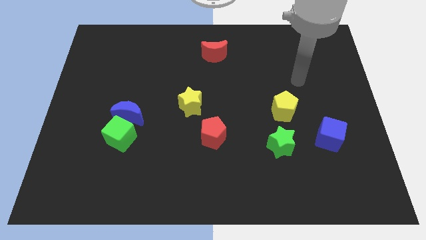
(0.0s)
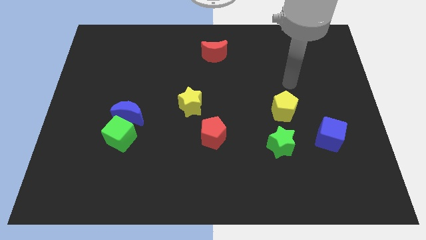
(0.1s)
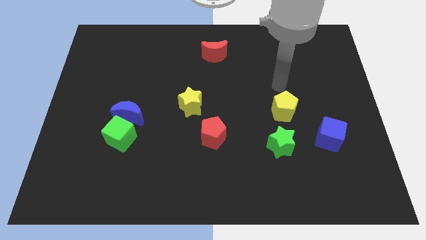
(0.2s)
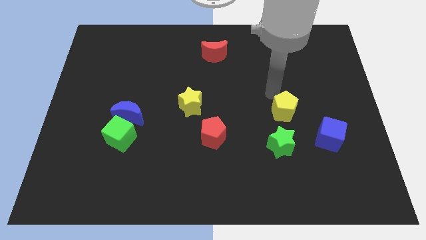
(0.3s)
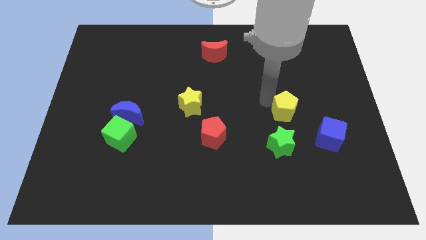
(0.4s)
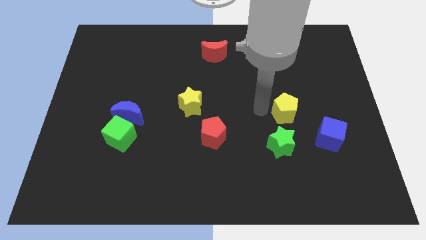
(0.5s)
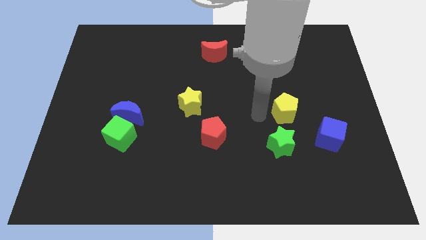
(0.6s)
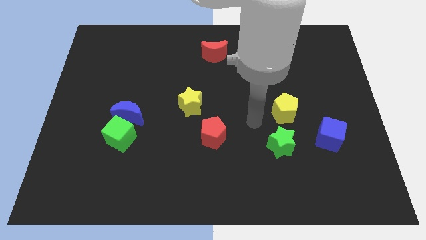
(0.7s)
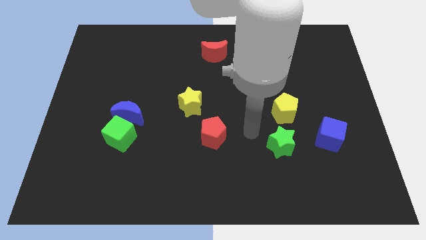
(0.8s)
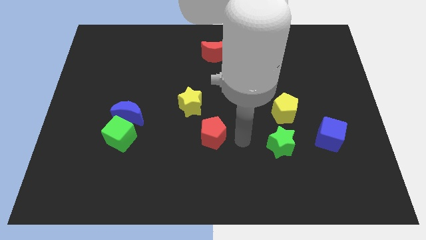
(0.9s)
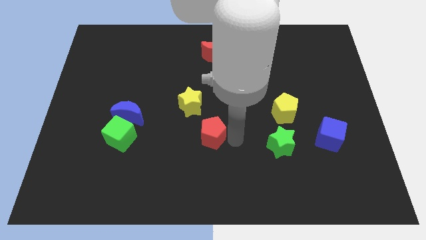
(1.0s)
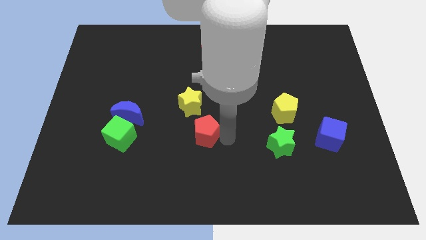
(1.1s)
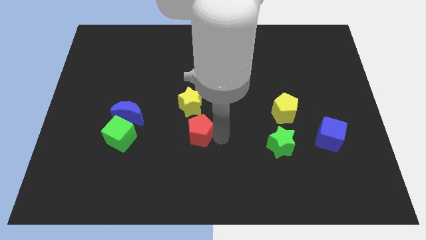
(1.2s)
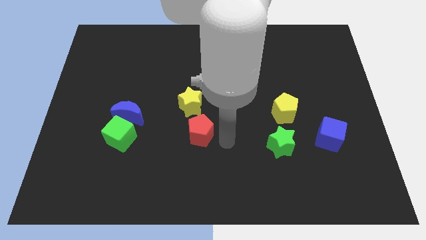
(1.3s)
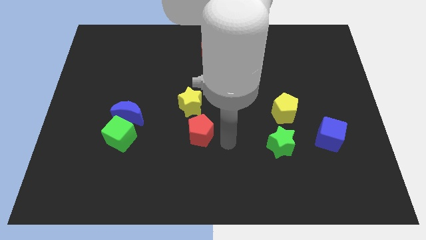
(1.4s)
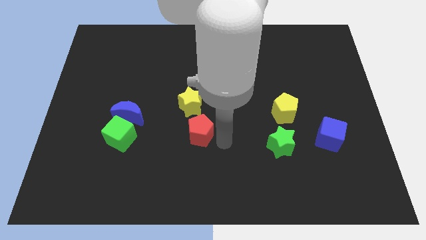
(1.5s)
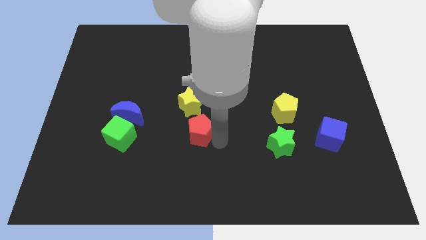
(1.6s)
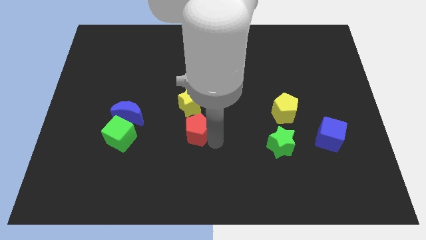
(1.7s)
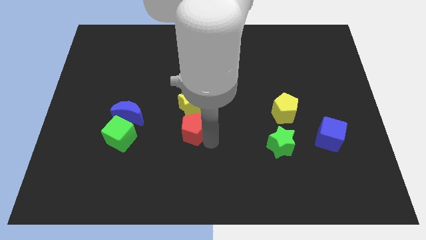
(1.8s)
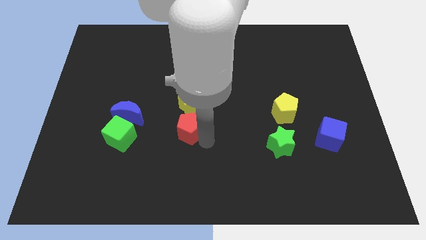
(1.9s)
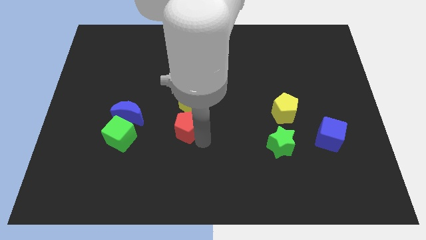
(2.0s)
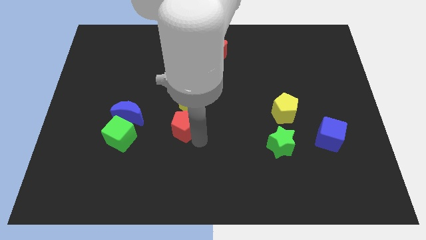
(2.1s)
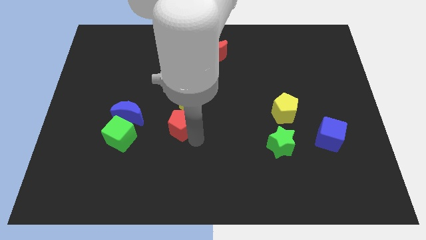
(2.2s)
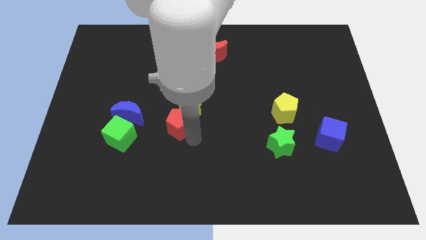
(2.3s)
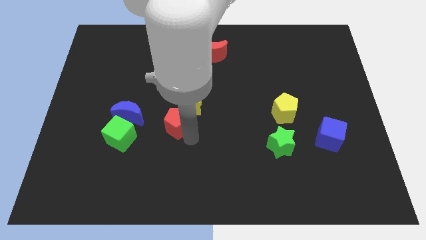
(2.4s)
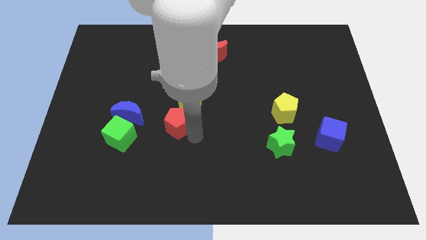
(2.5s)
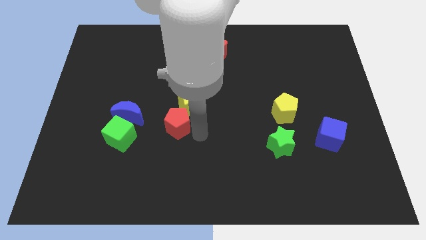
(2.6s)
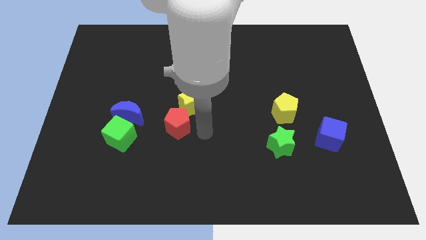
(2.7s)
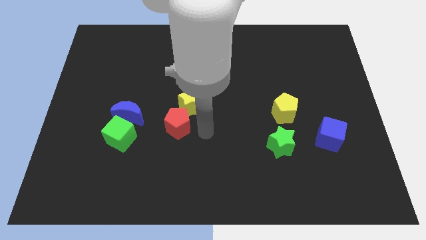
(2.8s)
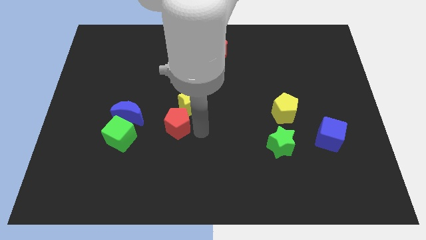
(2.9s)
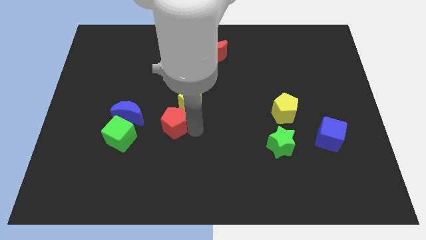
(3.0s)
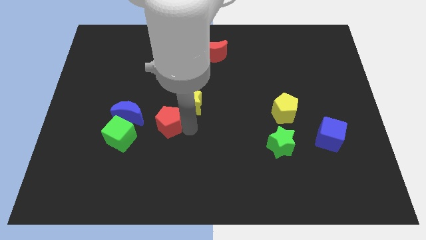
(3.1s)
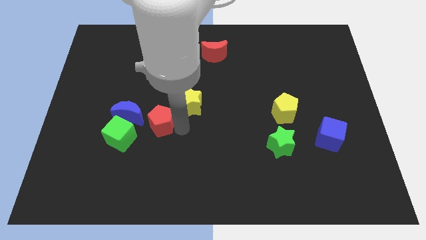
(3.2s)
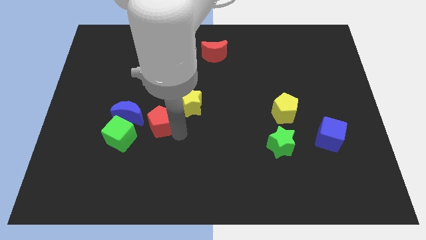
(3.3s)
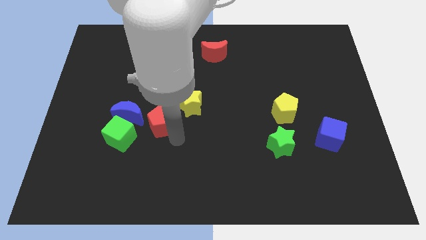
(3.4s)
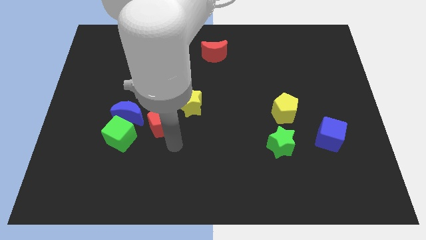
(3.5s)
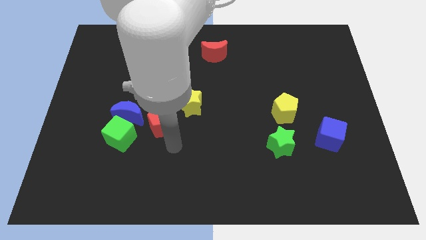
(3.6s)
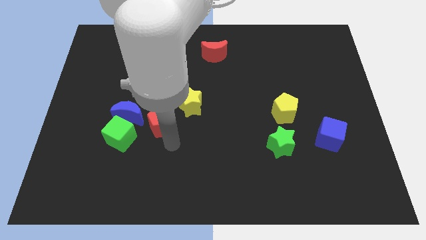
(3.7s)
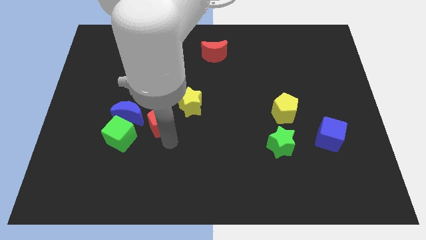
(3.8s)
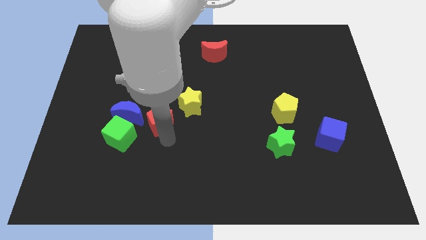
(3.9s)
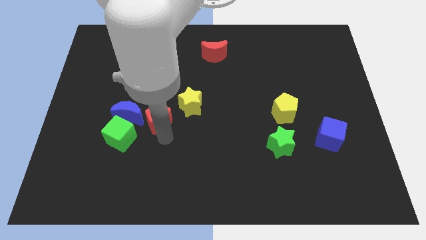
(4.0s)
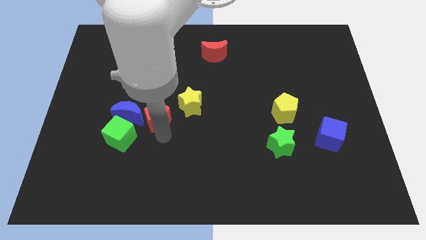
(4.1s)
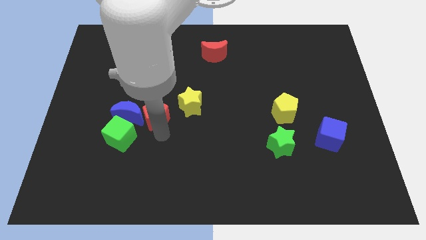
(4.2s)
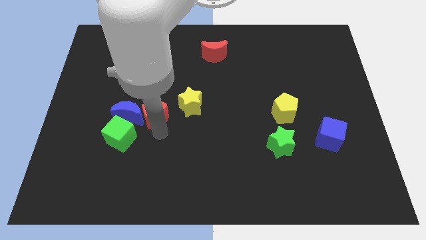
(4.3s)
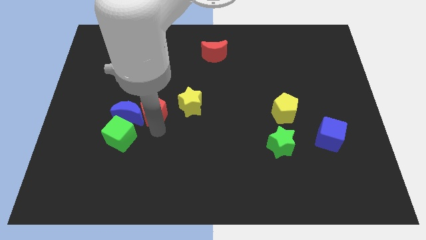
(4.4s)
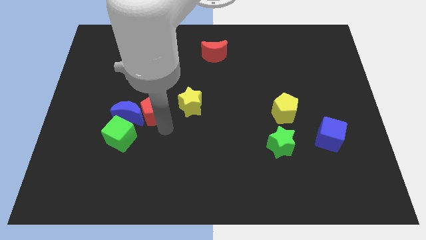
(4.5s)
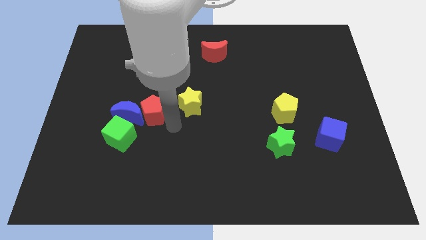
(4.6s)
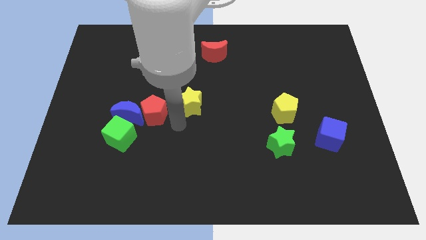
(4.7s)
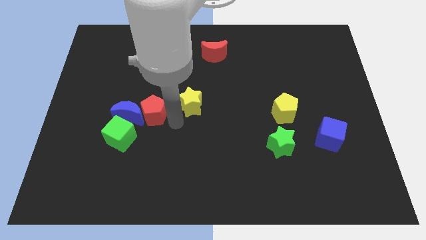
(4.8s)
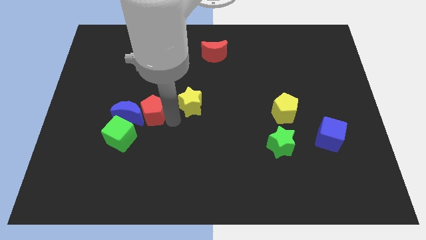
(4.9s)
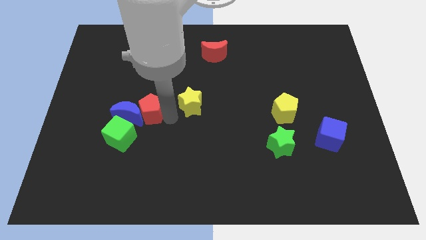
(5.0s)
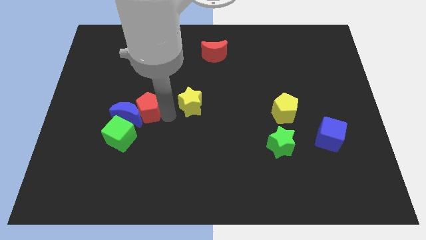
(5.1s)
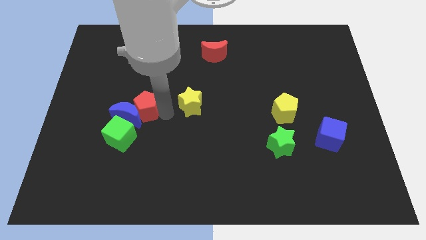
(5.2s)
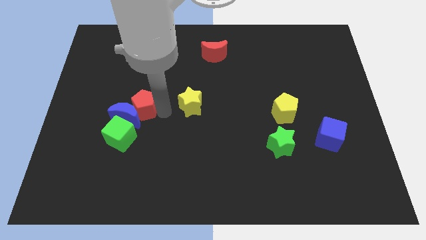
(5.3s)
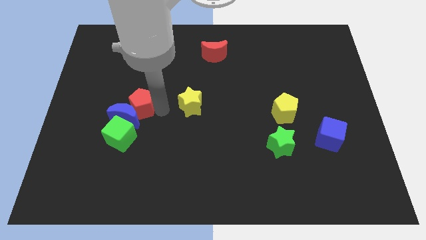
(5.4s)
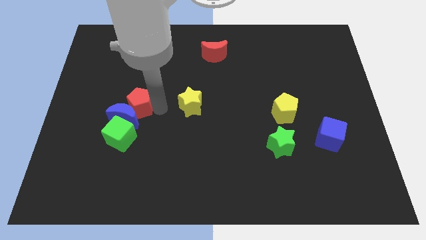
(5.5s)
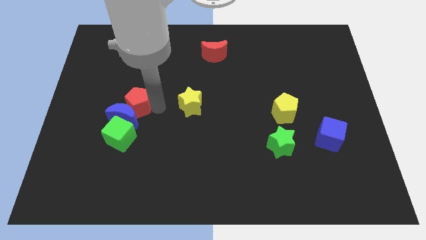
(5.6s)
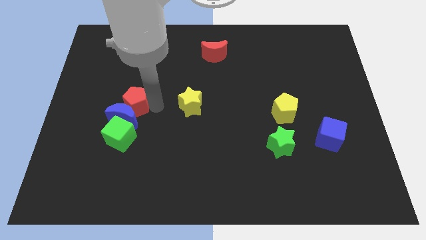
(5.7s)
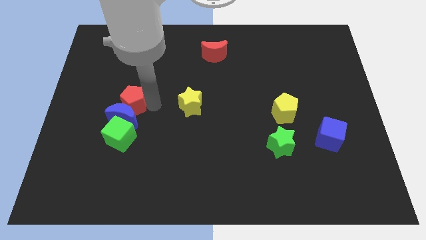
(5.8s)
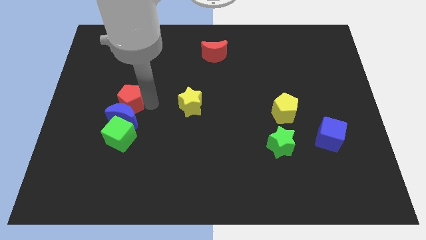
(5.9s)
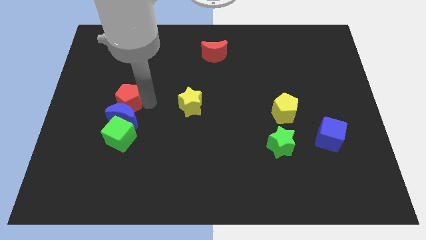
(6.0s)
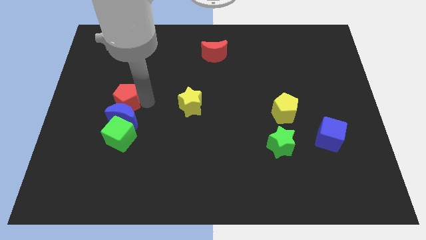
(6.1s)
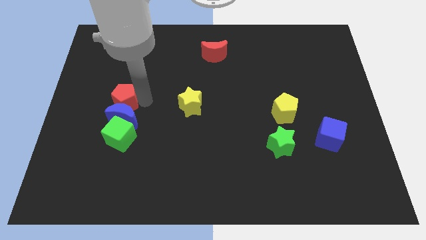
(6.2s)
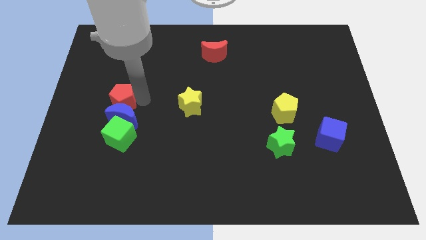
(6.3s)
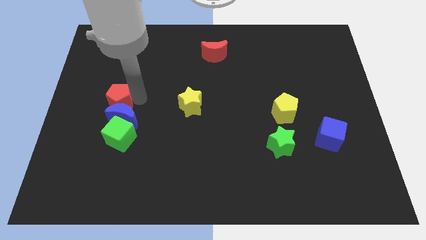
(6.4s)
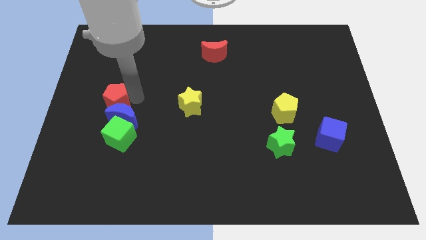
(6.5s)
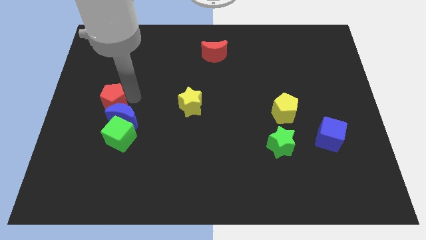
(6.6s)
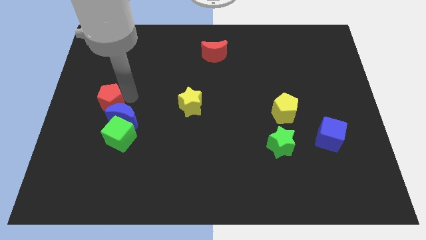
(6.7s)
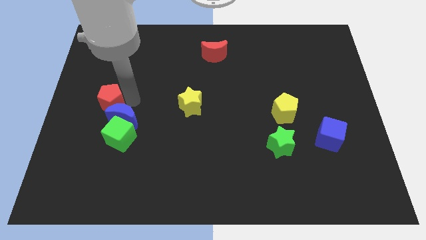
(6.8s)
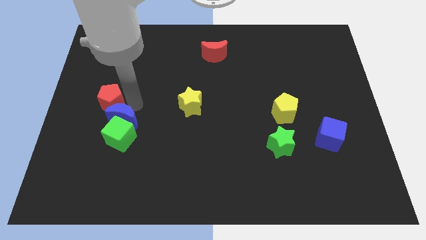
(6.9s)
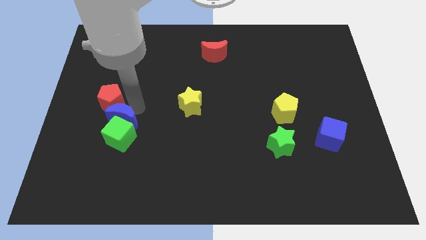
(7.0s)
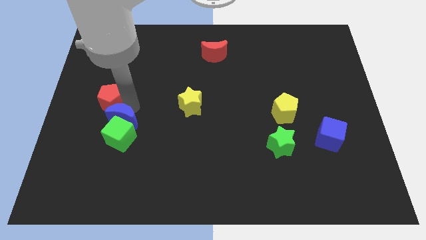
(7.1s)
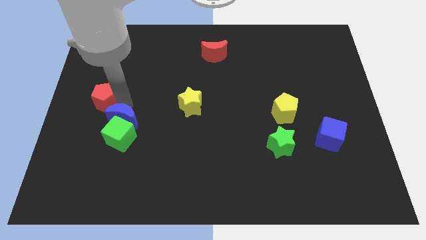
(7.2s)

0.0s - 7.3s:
push the red pentagon to the left side
